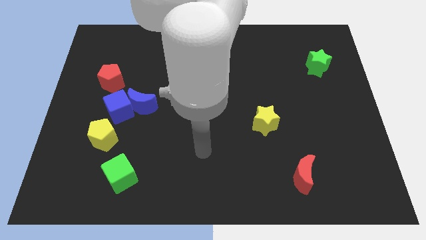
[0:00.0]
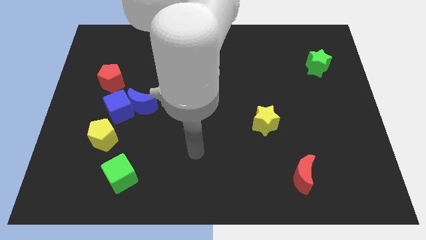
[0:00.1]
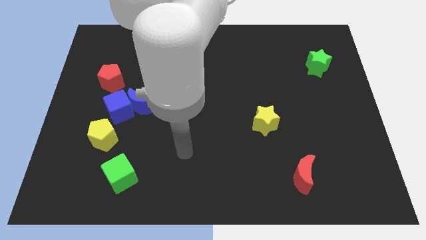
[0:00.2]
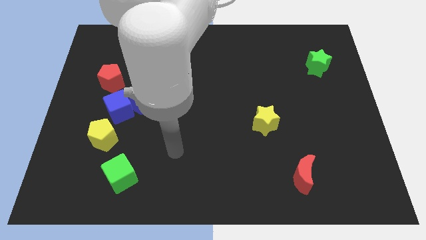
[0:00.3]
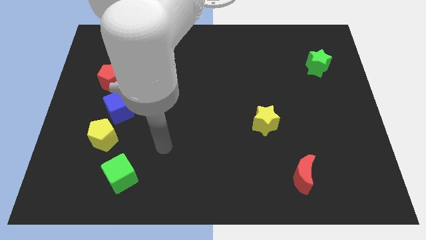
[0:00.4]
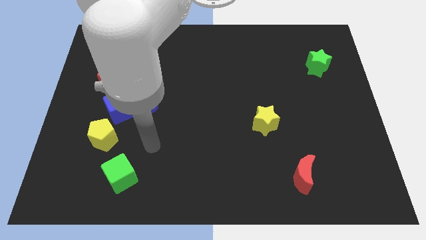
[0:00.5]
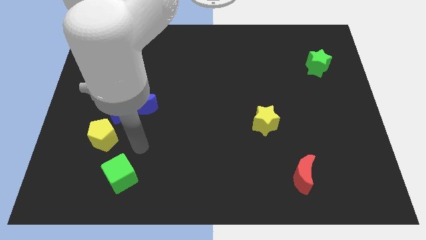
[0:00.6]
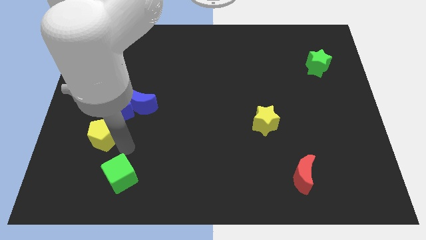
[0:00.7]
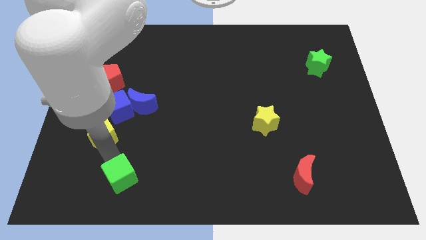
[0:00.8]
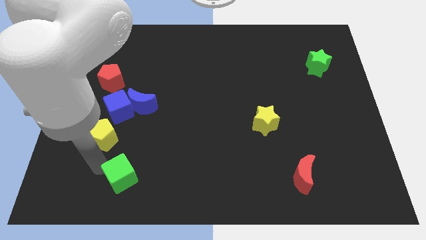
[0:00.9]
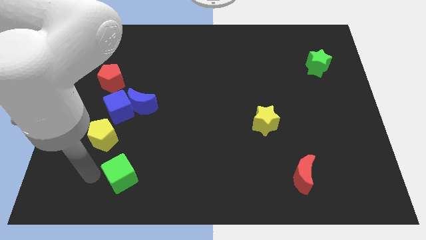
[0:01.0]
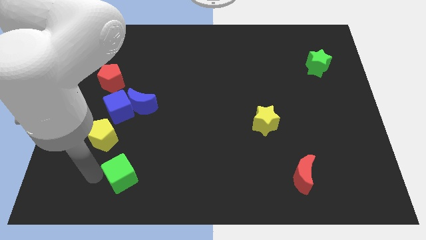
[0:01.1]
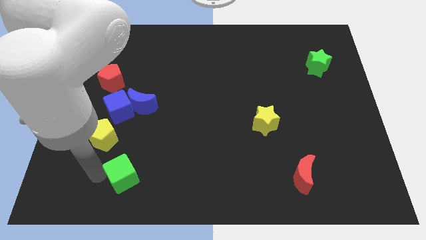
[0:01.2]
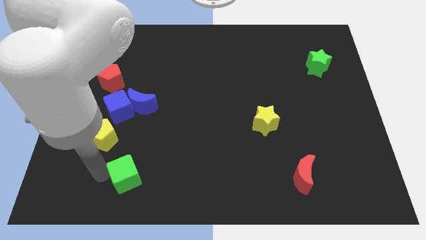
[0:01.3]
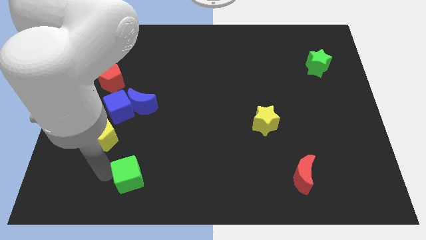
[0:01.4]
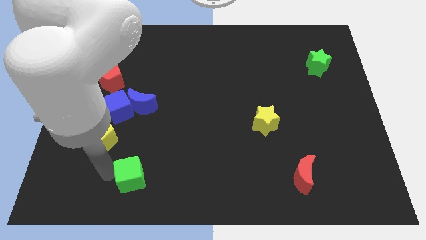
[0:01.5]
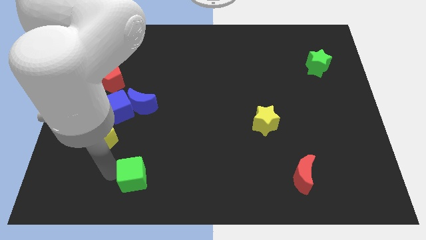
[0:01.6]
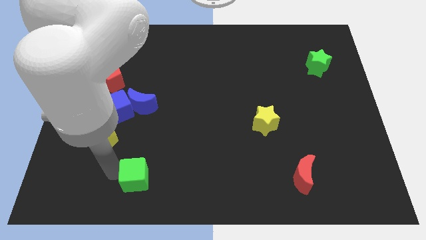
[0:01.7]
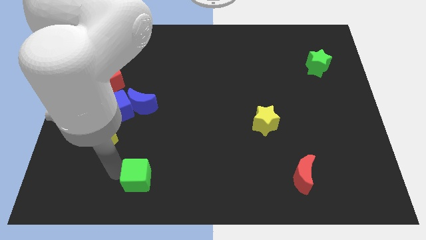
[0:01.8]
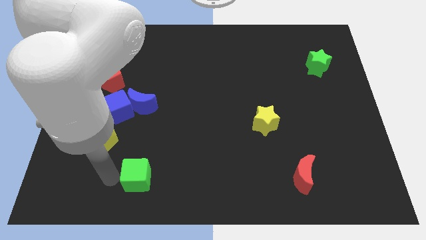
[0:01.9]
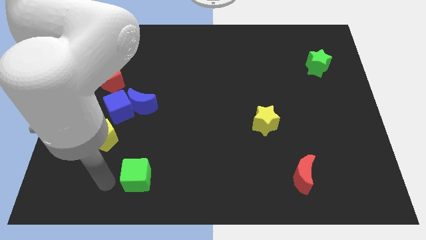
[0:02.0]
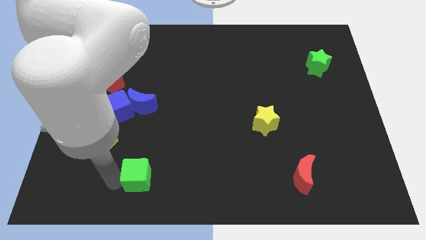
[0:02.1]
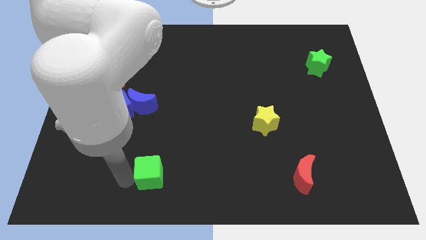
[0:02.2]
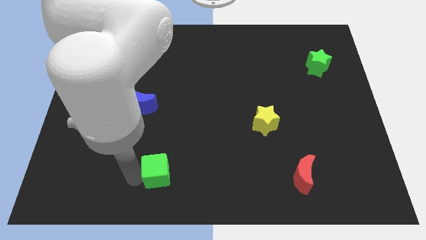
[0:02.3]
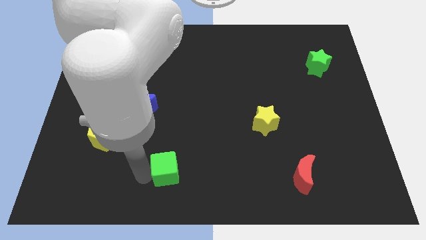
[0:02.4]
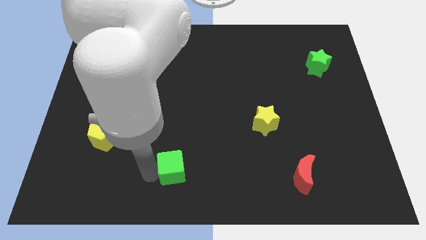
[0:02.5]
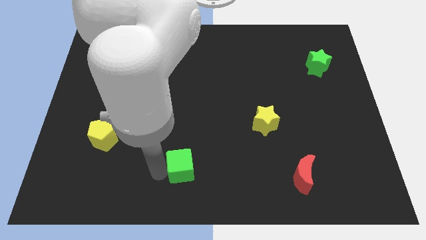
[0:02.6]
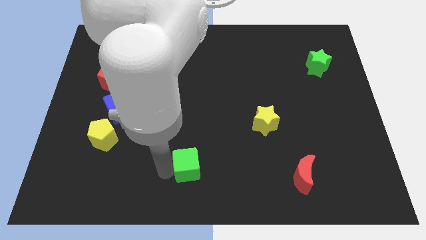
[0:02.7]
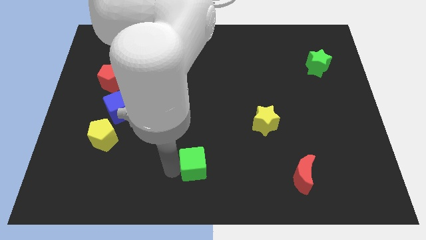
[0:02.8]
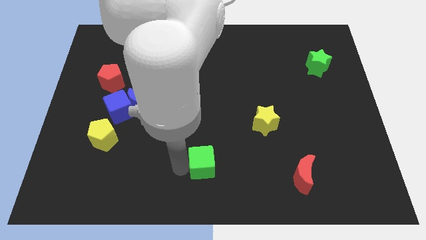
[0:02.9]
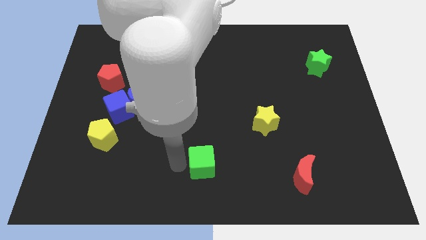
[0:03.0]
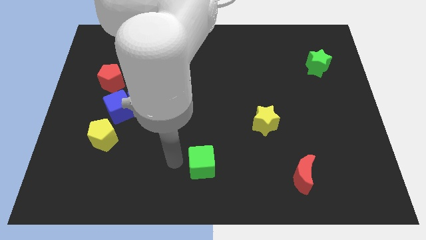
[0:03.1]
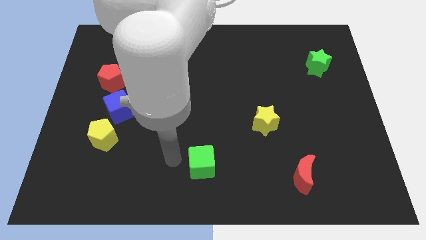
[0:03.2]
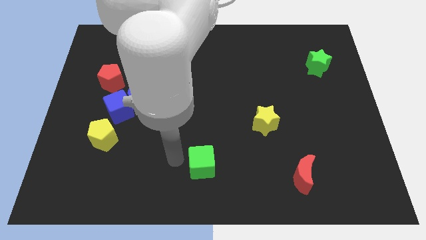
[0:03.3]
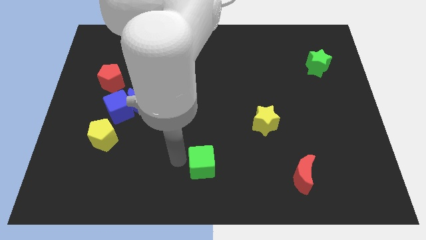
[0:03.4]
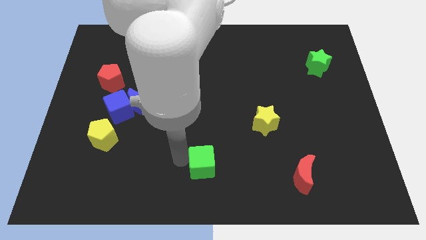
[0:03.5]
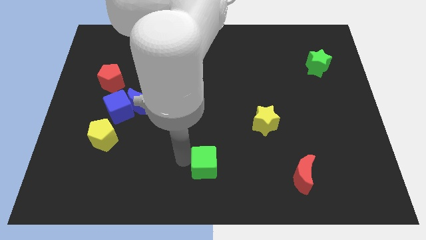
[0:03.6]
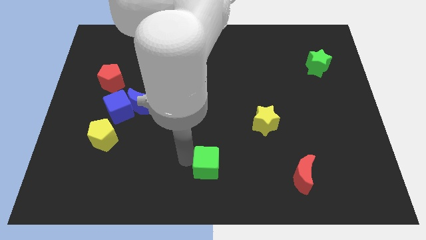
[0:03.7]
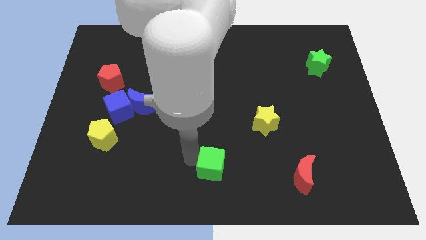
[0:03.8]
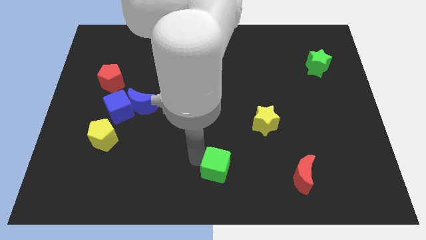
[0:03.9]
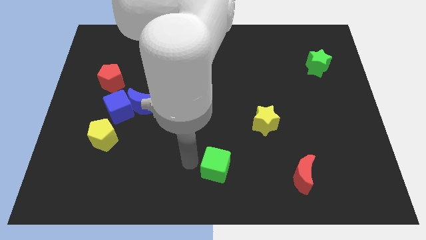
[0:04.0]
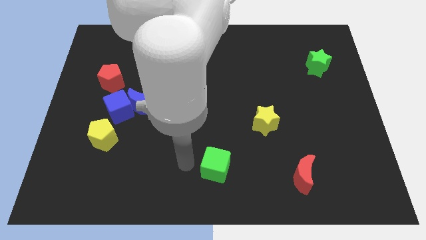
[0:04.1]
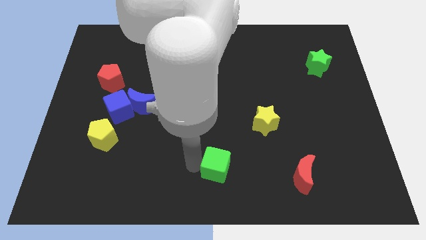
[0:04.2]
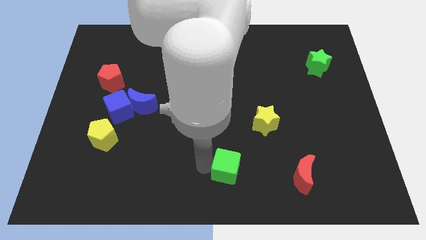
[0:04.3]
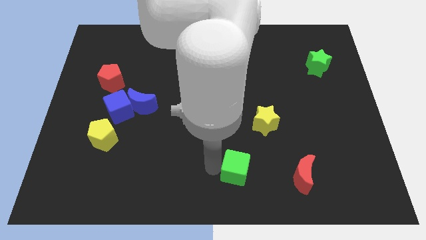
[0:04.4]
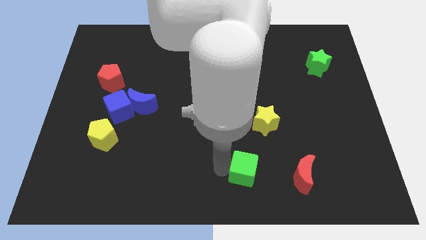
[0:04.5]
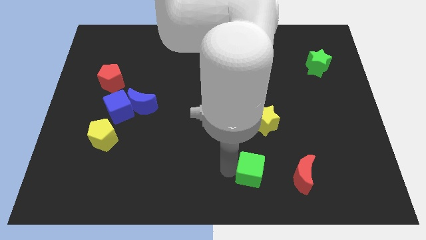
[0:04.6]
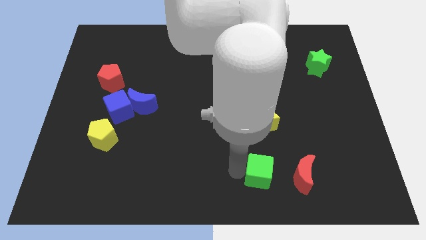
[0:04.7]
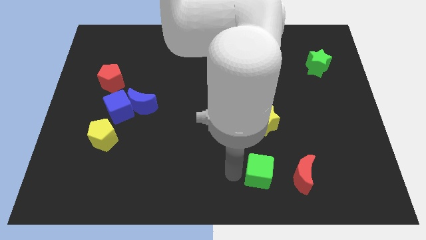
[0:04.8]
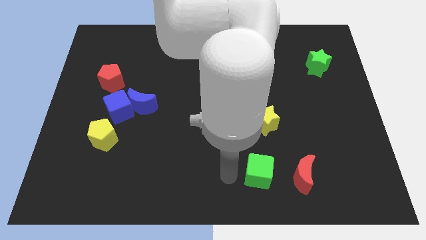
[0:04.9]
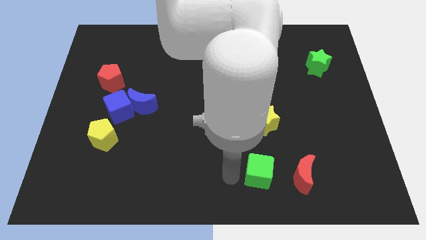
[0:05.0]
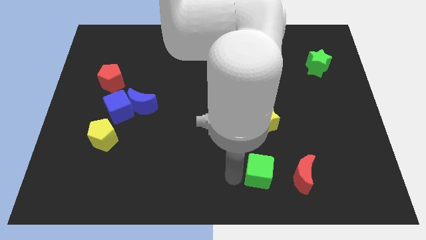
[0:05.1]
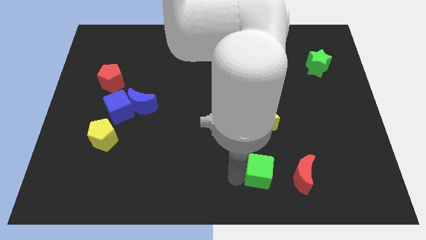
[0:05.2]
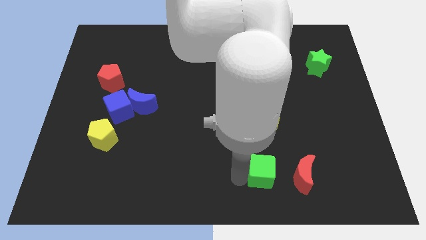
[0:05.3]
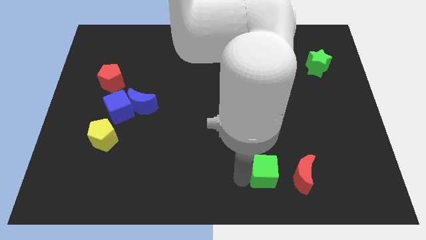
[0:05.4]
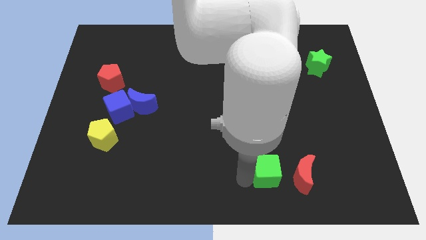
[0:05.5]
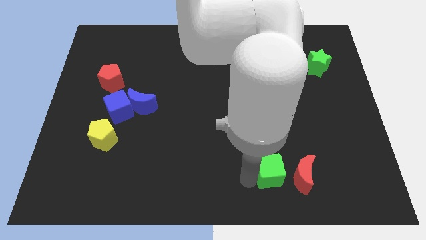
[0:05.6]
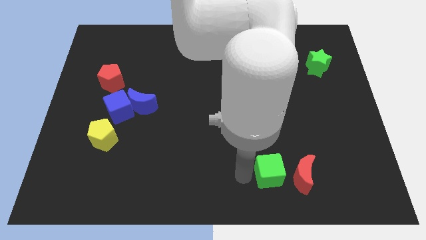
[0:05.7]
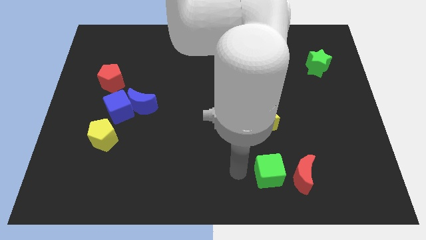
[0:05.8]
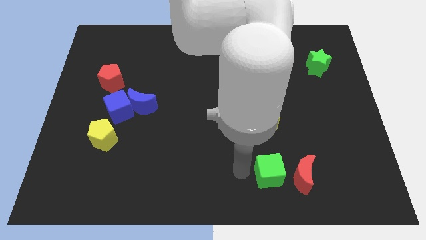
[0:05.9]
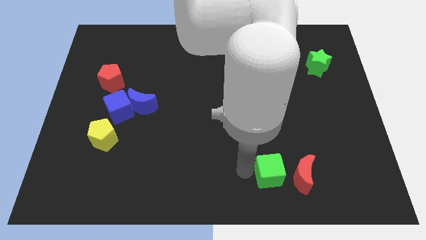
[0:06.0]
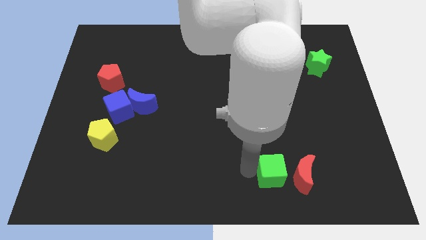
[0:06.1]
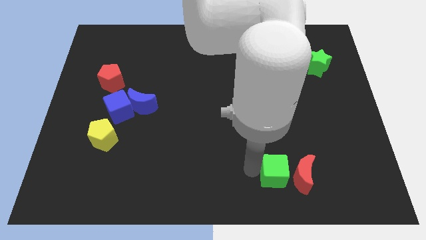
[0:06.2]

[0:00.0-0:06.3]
slide the green cube close to the red moon

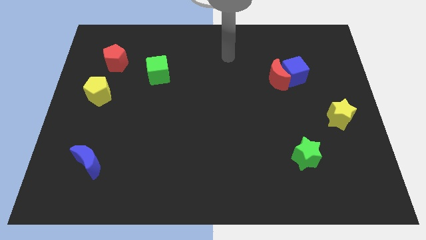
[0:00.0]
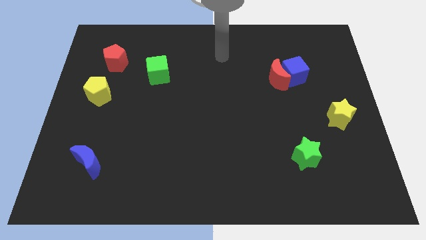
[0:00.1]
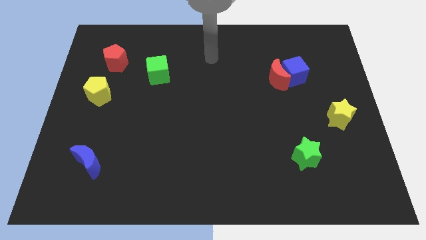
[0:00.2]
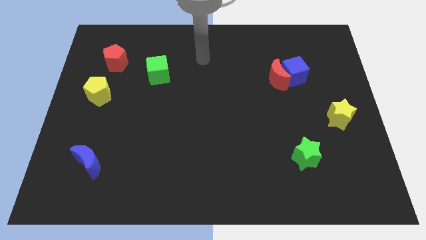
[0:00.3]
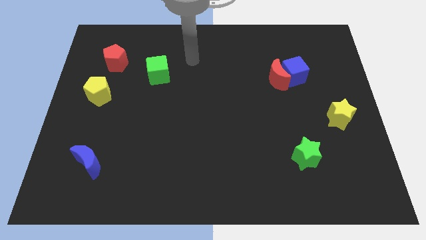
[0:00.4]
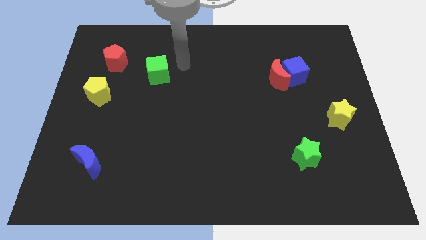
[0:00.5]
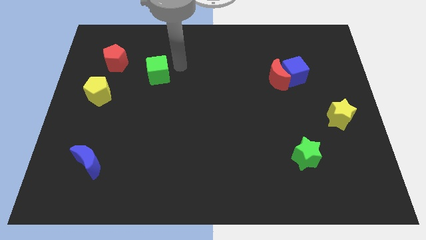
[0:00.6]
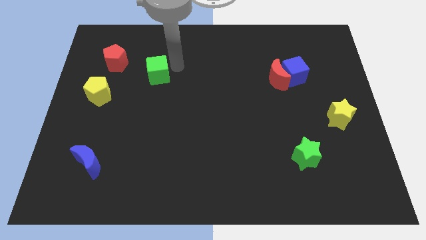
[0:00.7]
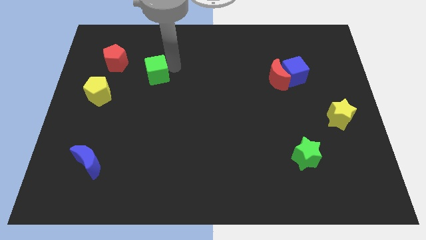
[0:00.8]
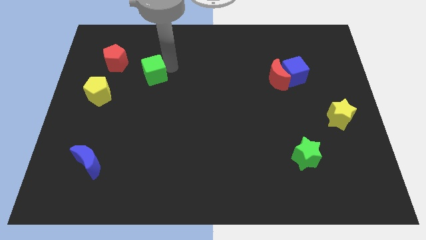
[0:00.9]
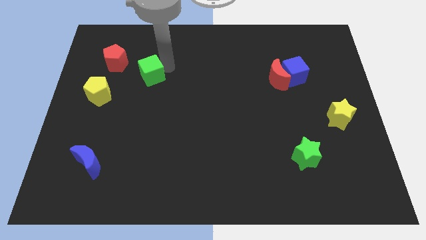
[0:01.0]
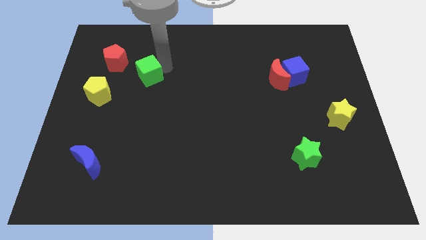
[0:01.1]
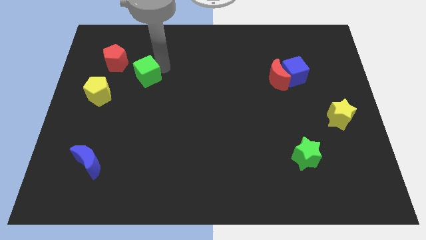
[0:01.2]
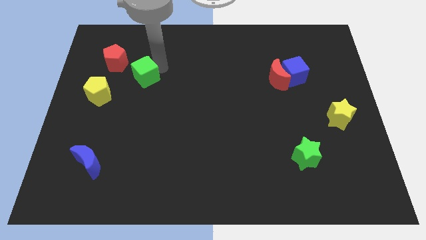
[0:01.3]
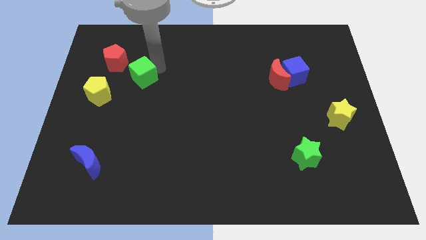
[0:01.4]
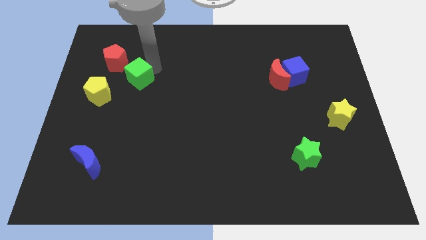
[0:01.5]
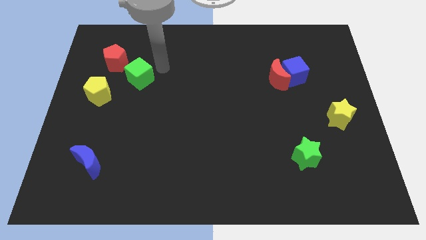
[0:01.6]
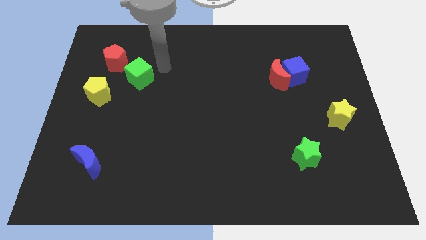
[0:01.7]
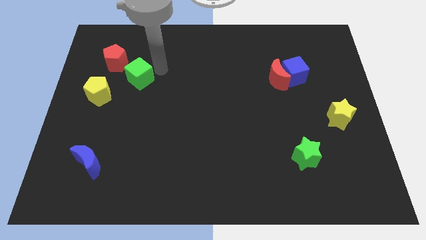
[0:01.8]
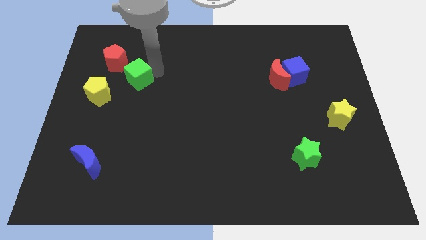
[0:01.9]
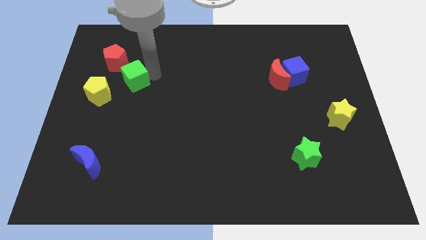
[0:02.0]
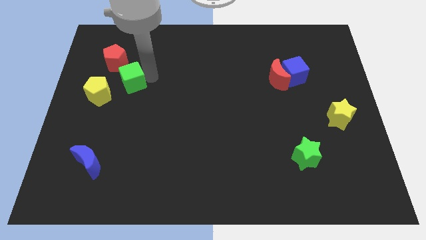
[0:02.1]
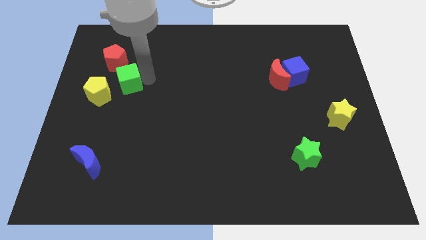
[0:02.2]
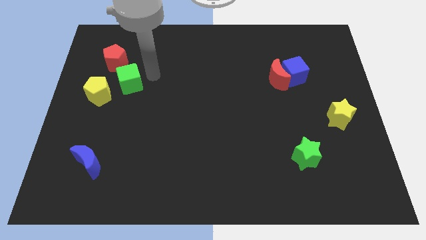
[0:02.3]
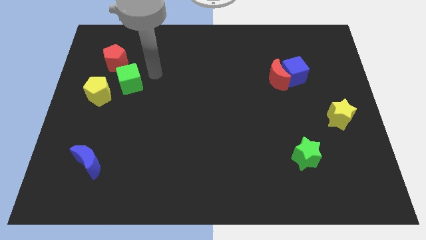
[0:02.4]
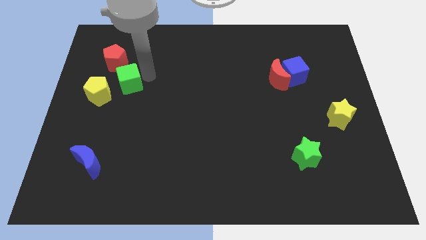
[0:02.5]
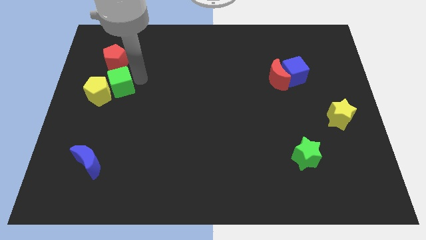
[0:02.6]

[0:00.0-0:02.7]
move the green cube to the yellow pentagon
